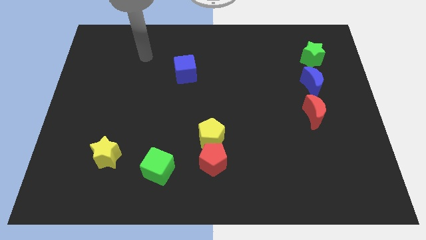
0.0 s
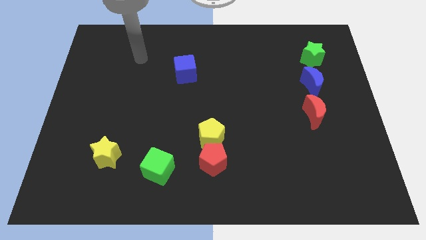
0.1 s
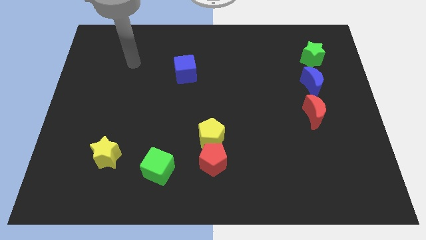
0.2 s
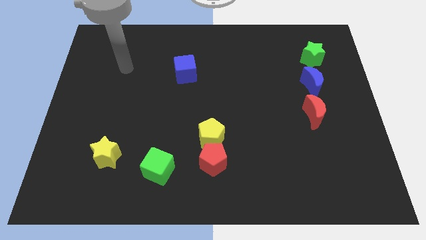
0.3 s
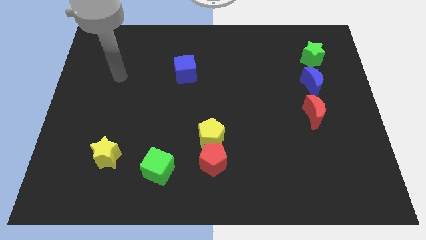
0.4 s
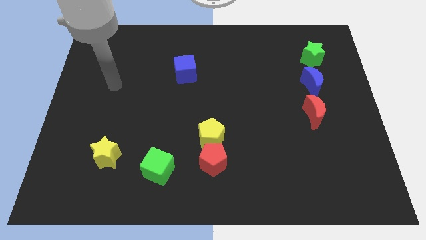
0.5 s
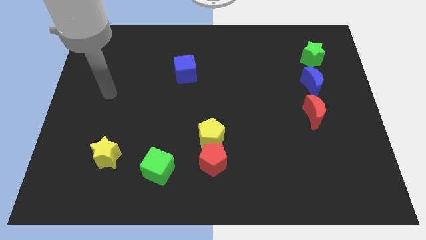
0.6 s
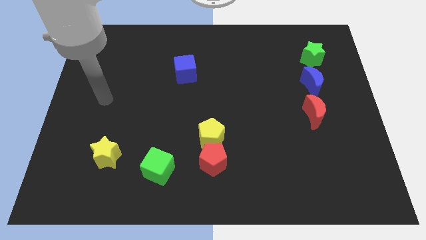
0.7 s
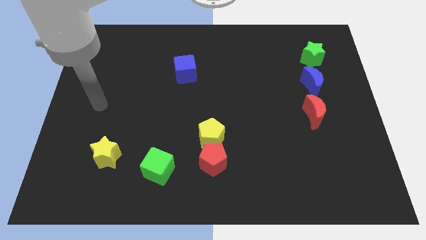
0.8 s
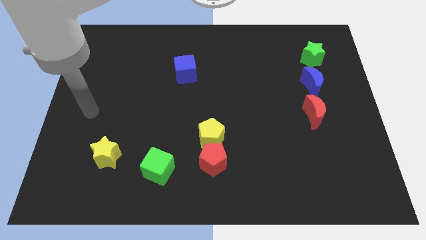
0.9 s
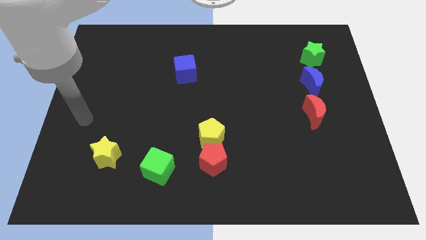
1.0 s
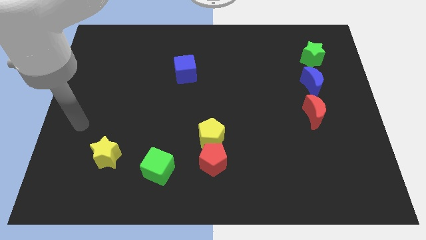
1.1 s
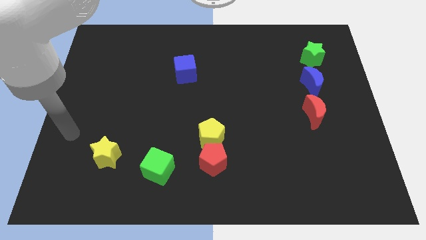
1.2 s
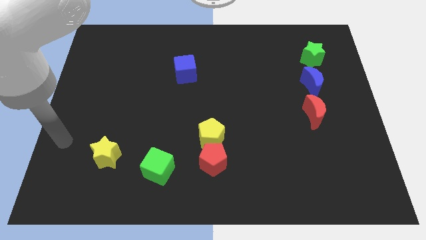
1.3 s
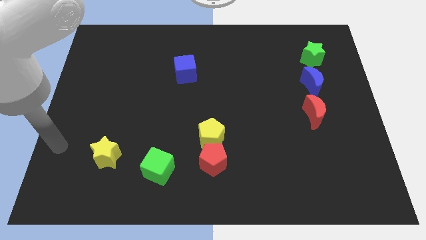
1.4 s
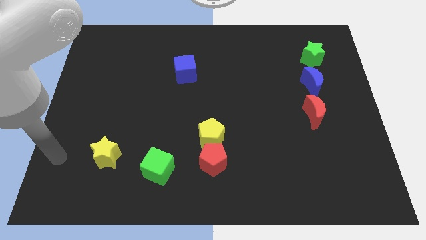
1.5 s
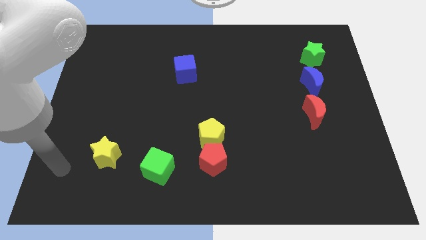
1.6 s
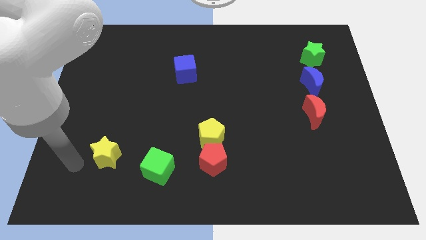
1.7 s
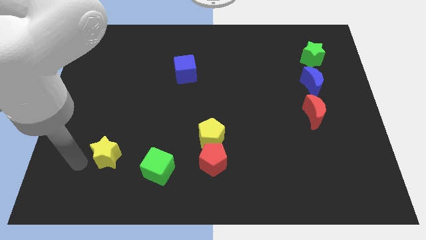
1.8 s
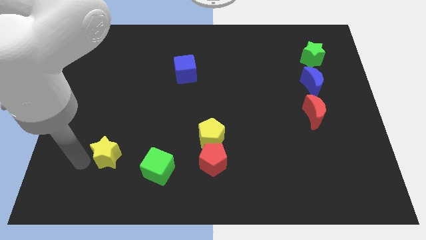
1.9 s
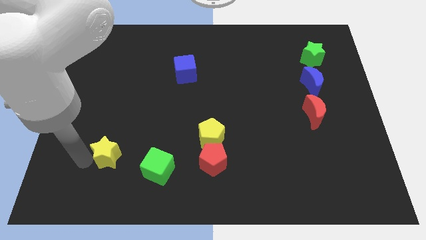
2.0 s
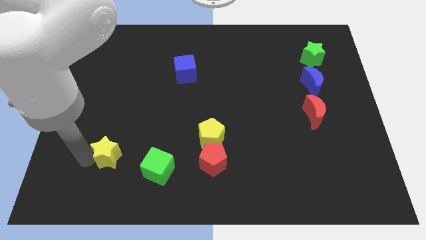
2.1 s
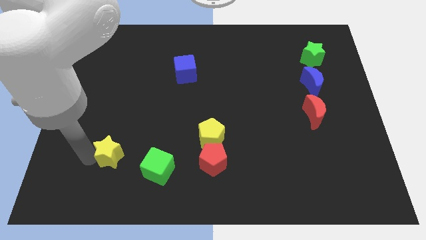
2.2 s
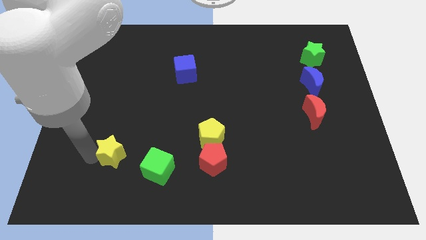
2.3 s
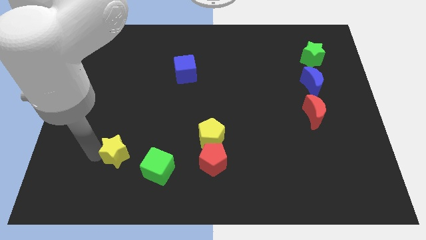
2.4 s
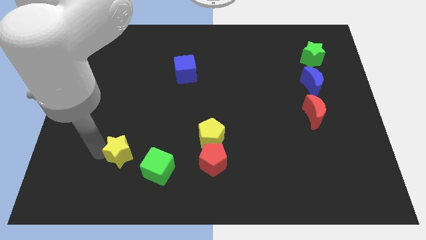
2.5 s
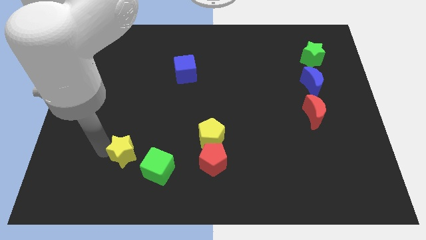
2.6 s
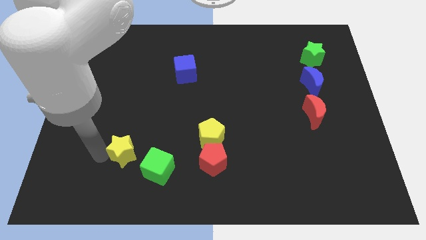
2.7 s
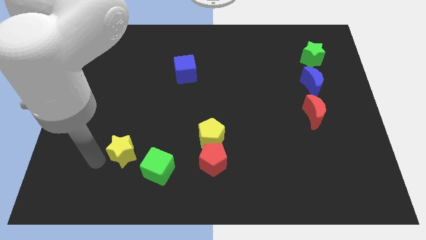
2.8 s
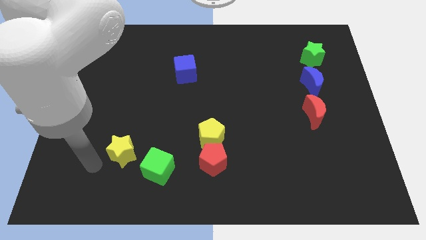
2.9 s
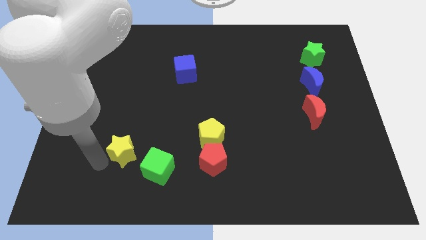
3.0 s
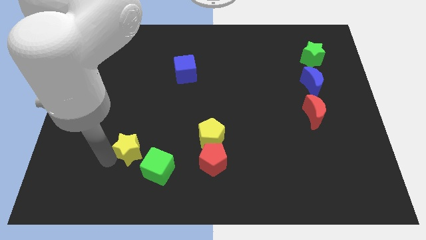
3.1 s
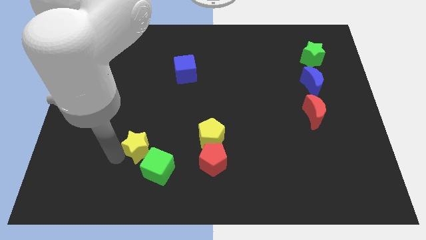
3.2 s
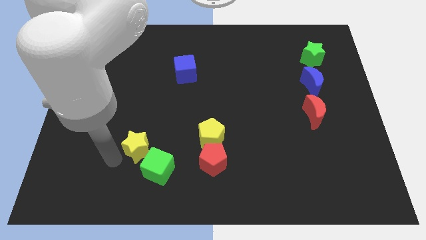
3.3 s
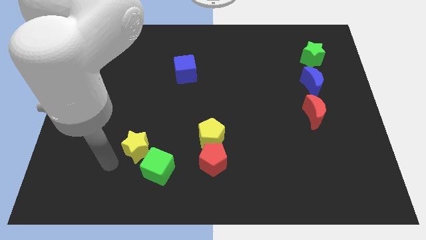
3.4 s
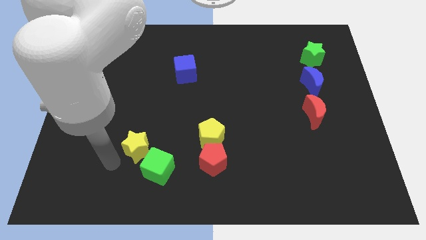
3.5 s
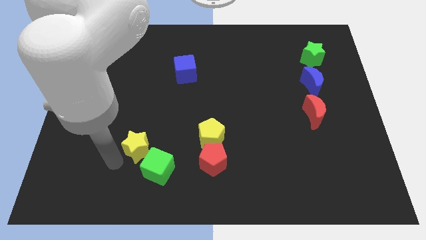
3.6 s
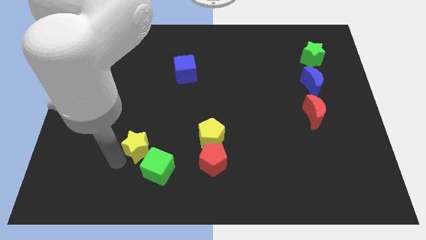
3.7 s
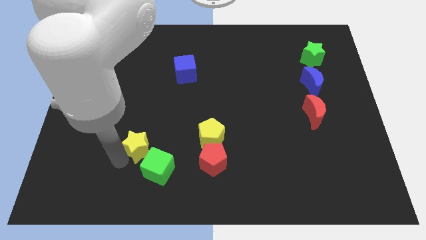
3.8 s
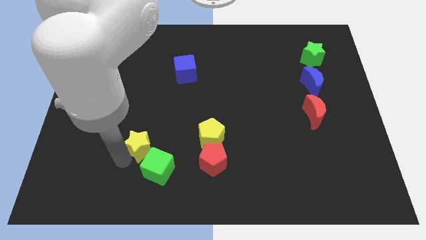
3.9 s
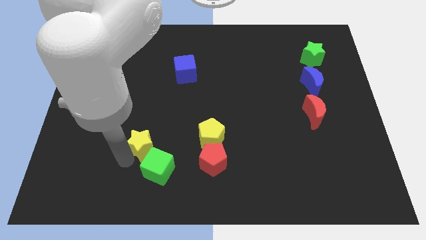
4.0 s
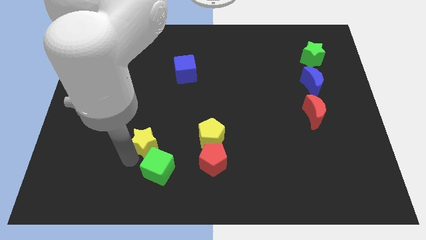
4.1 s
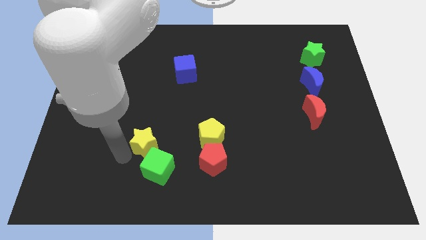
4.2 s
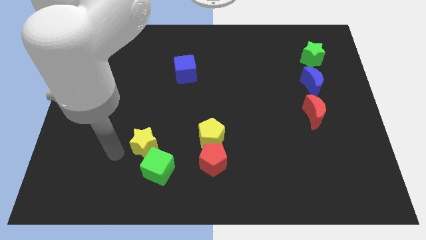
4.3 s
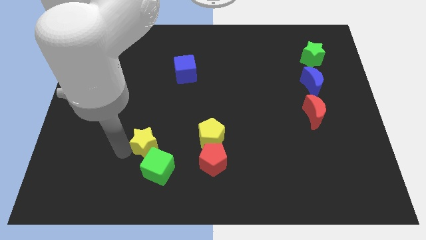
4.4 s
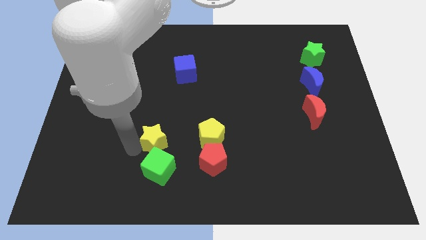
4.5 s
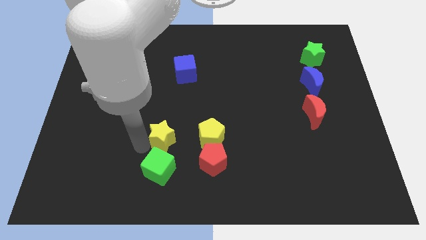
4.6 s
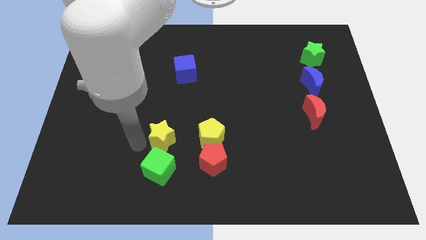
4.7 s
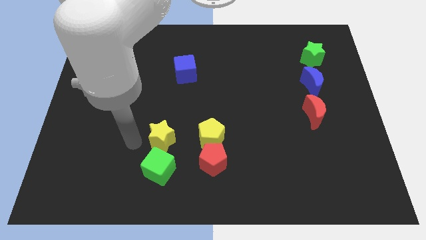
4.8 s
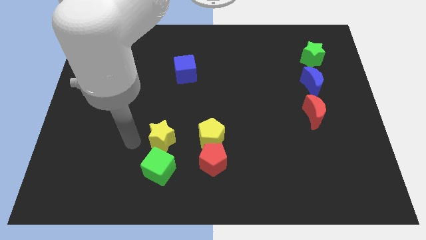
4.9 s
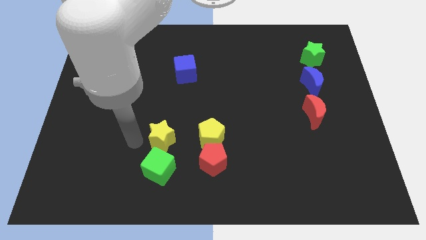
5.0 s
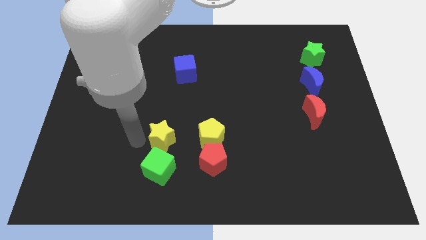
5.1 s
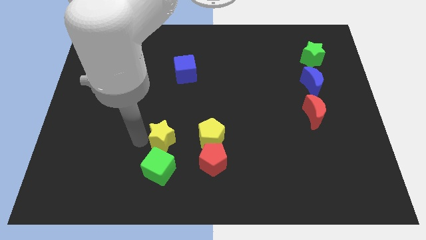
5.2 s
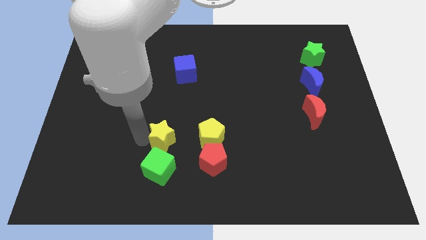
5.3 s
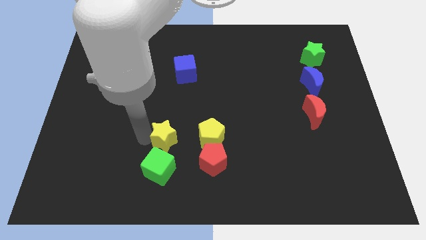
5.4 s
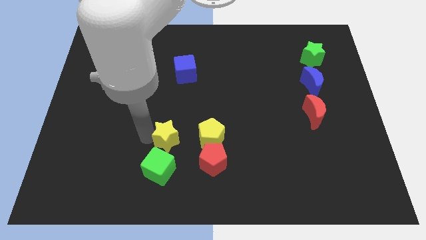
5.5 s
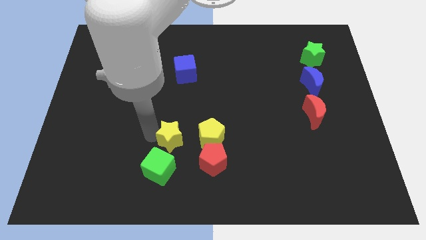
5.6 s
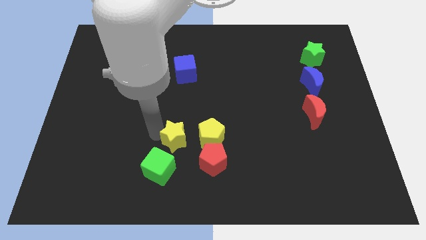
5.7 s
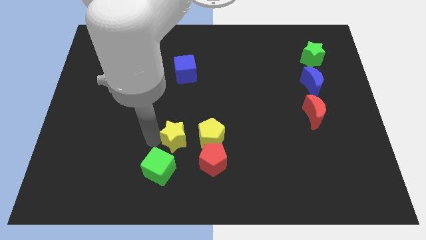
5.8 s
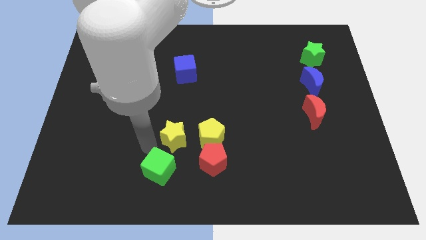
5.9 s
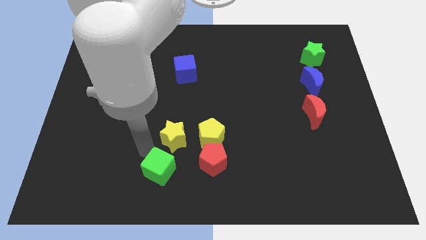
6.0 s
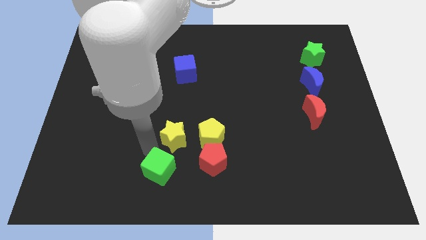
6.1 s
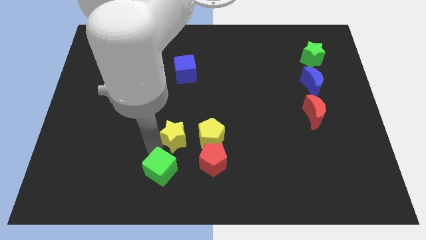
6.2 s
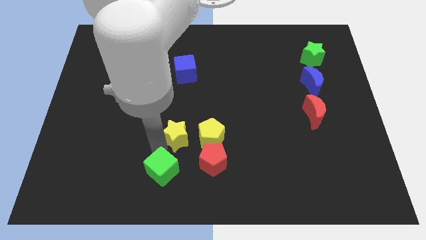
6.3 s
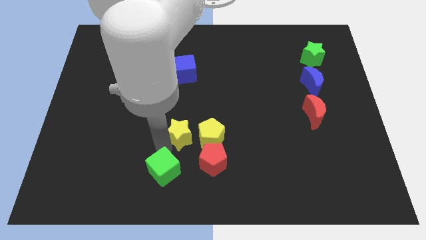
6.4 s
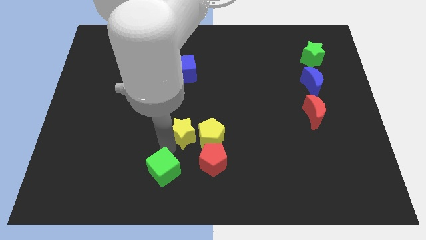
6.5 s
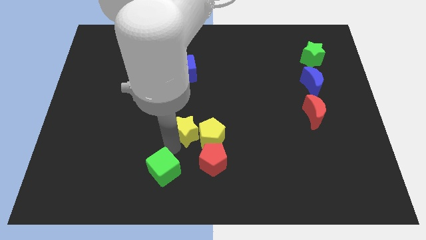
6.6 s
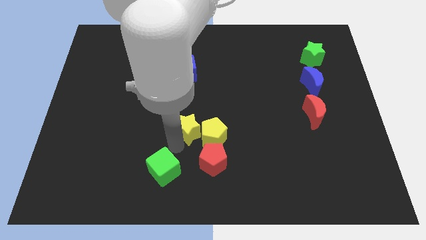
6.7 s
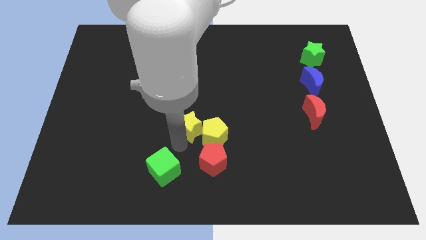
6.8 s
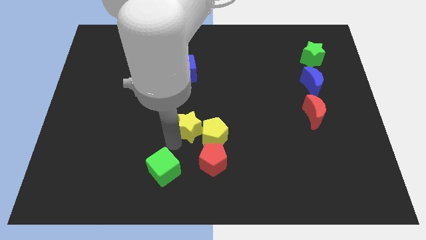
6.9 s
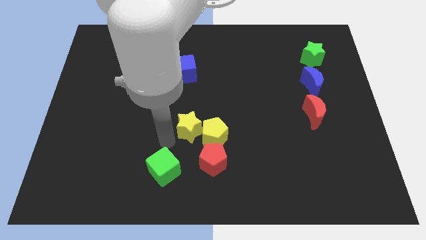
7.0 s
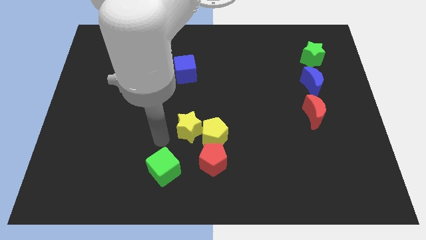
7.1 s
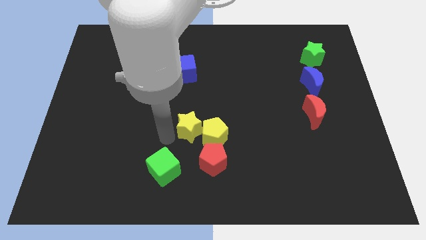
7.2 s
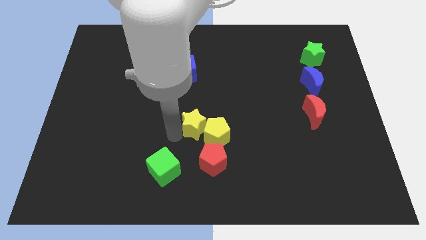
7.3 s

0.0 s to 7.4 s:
push the yellow star above the red pentagon
